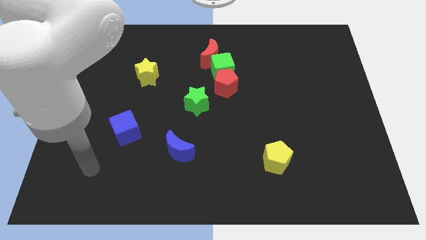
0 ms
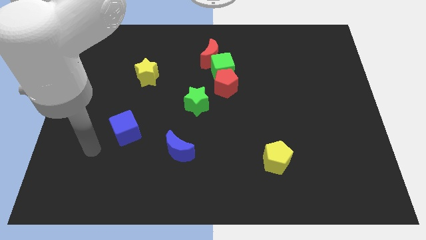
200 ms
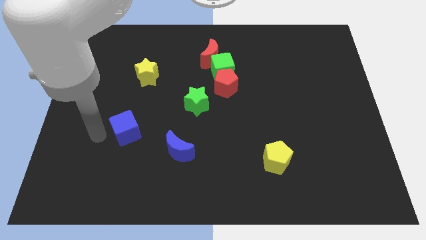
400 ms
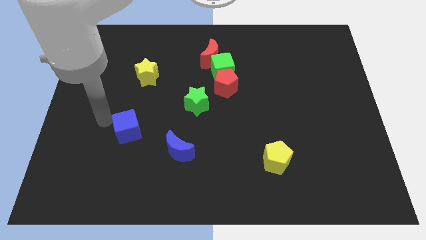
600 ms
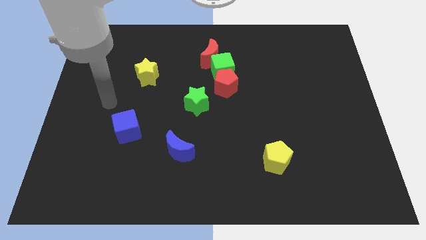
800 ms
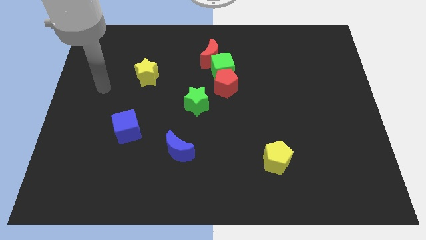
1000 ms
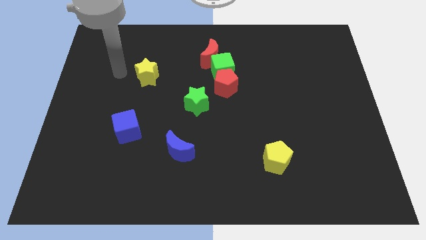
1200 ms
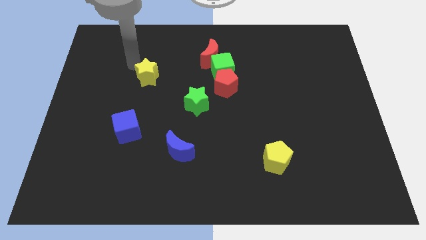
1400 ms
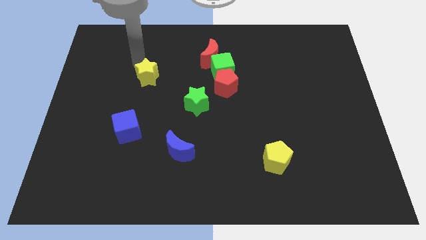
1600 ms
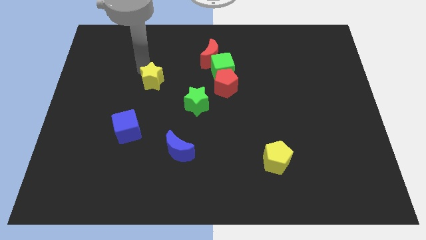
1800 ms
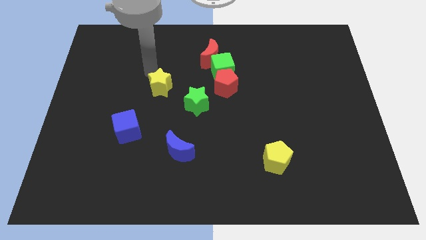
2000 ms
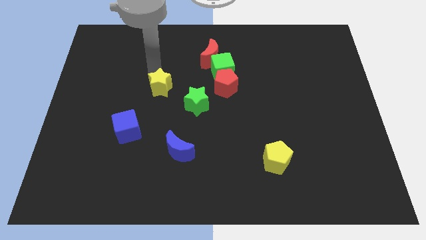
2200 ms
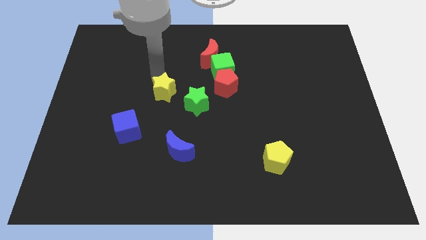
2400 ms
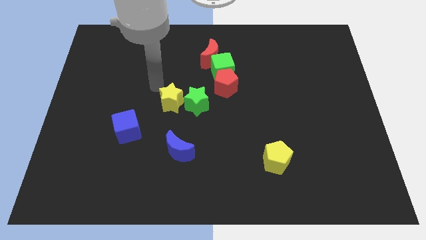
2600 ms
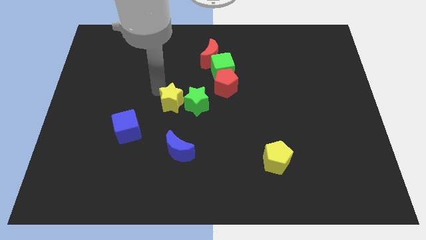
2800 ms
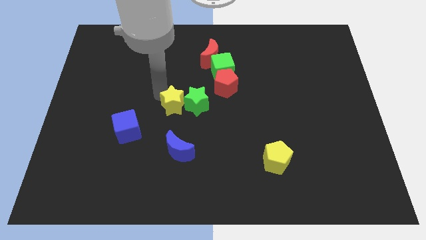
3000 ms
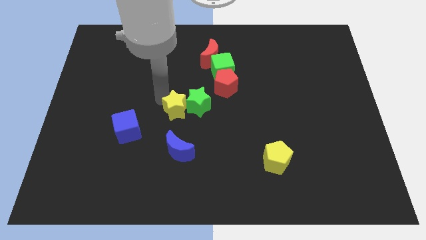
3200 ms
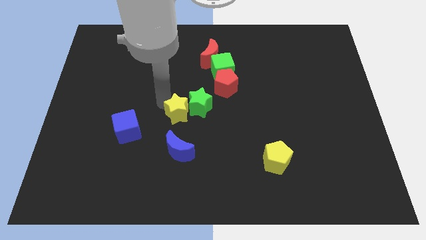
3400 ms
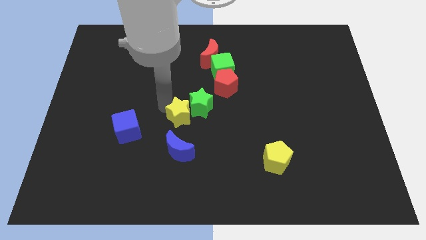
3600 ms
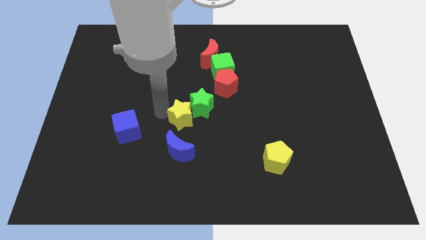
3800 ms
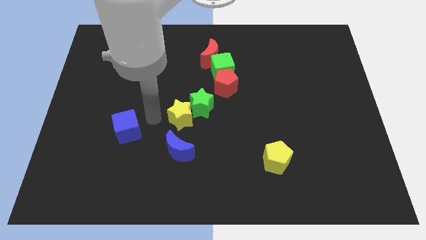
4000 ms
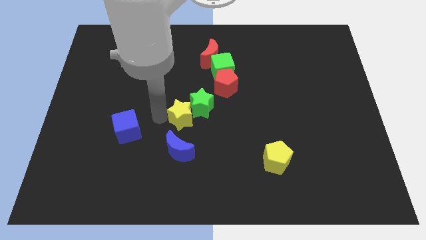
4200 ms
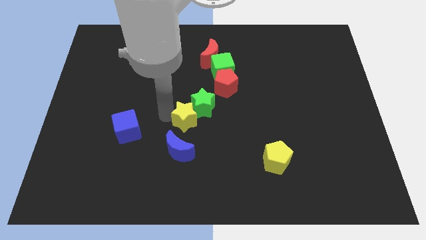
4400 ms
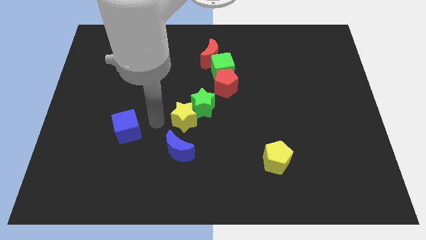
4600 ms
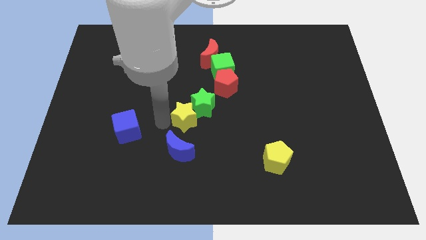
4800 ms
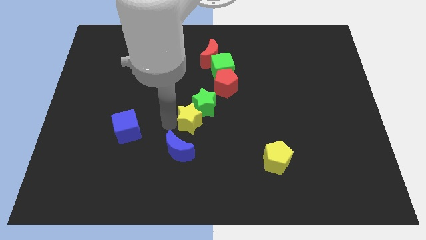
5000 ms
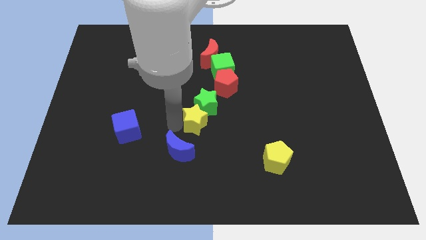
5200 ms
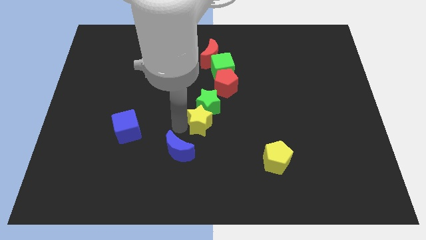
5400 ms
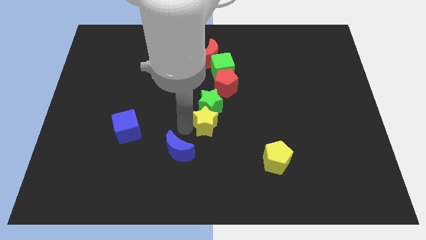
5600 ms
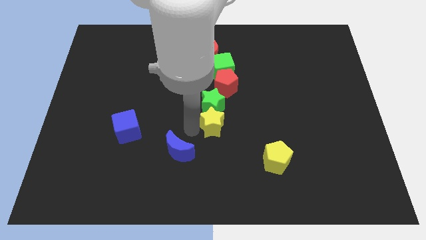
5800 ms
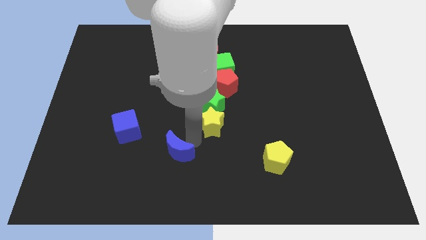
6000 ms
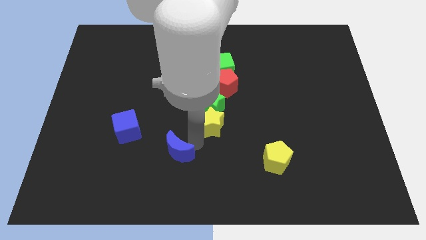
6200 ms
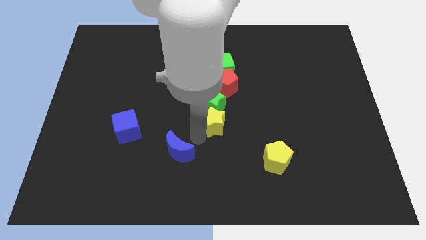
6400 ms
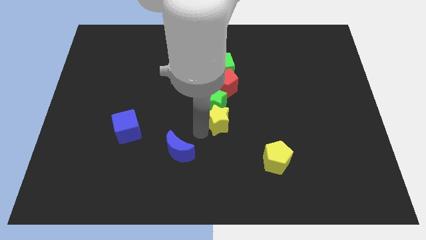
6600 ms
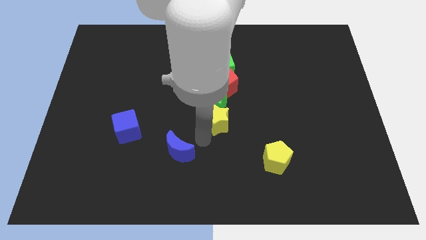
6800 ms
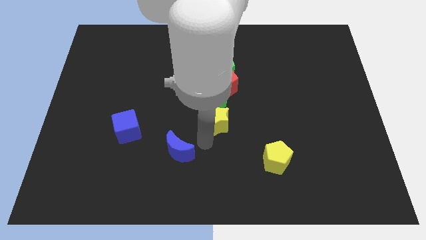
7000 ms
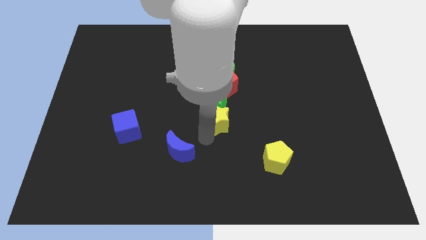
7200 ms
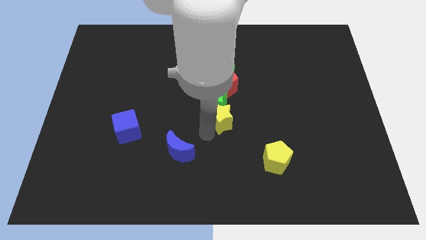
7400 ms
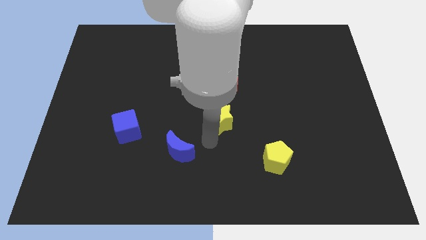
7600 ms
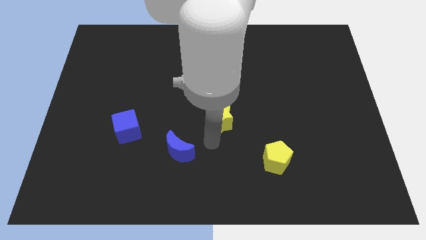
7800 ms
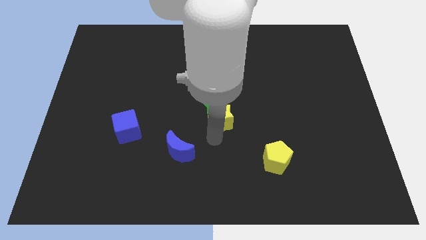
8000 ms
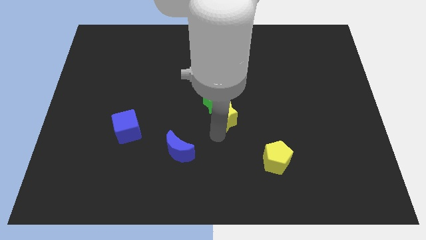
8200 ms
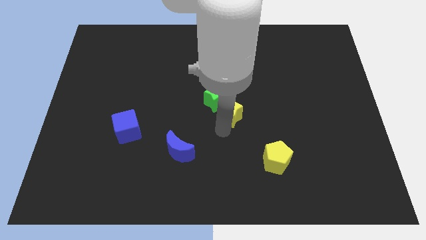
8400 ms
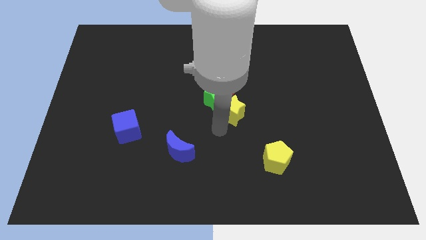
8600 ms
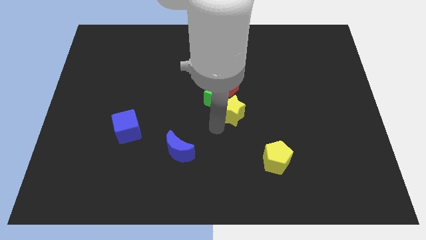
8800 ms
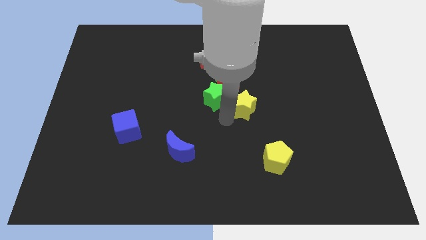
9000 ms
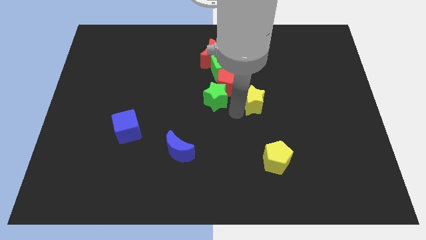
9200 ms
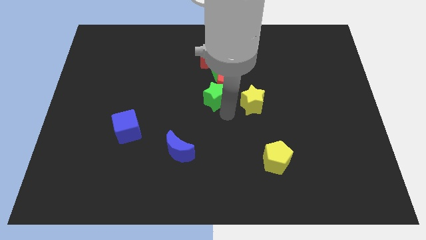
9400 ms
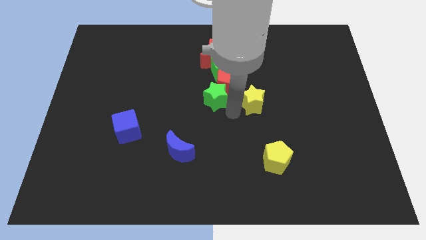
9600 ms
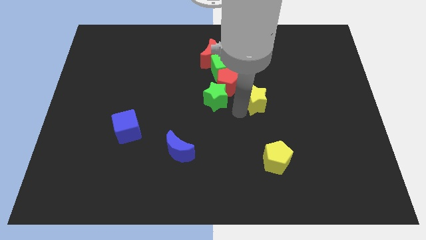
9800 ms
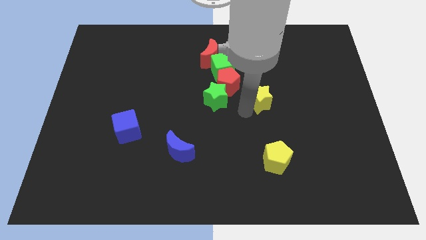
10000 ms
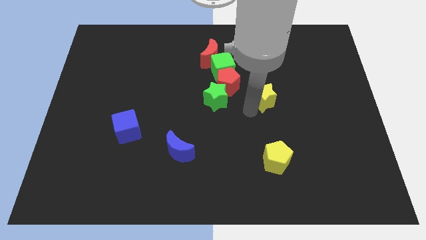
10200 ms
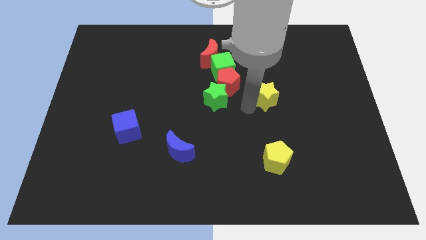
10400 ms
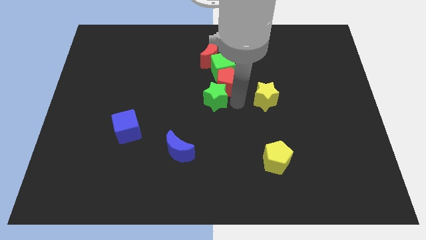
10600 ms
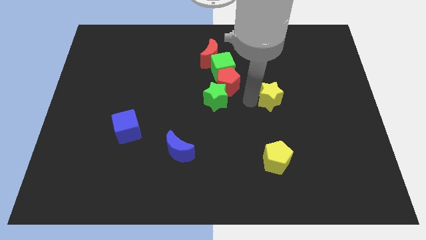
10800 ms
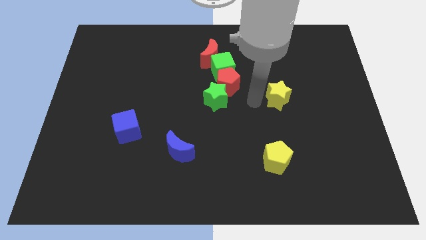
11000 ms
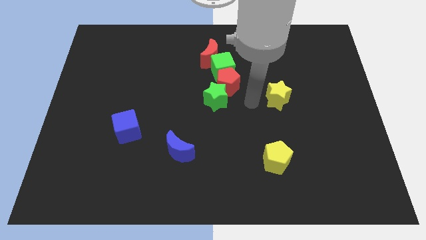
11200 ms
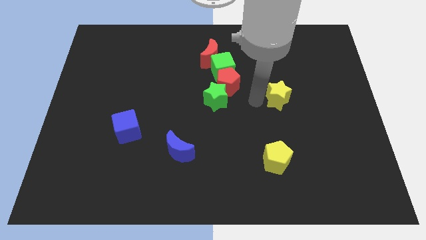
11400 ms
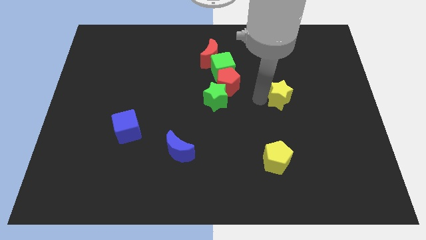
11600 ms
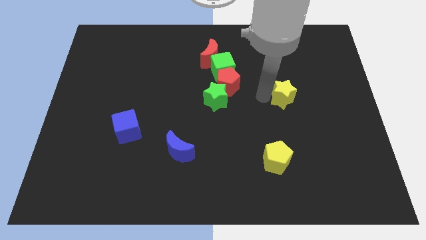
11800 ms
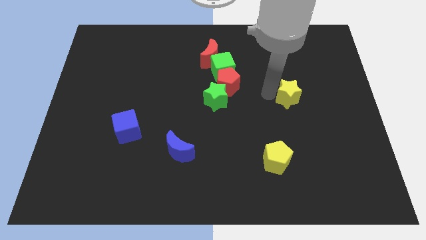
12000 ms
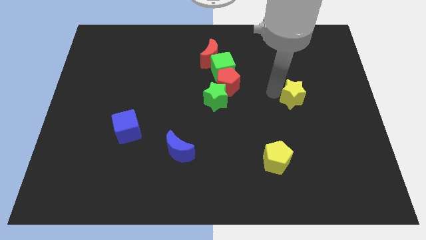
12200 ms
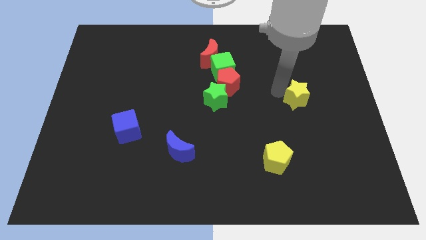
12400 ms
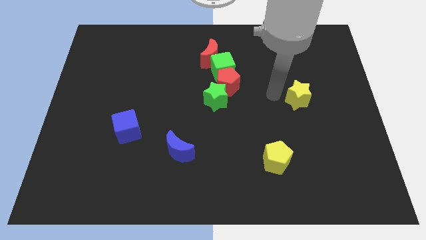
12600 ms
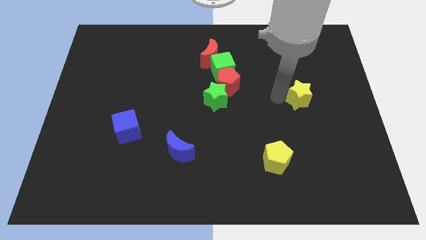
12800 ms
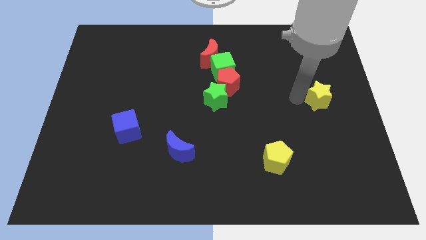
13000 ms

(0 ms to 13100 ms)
slide the yellow star to the right side of the board

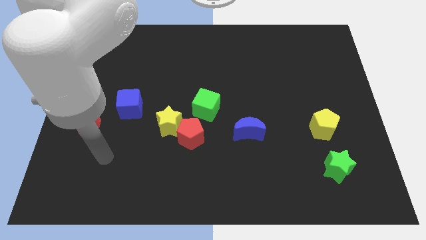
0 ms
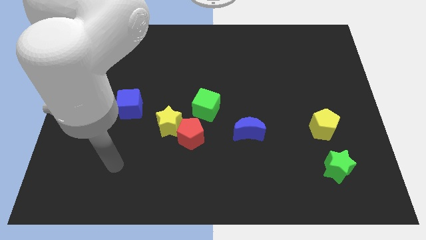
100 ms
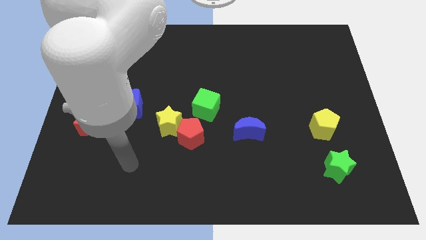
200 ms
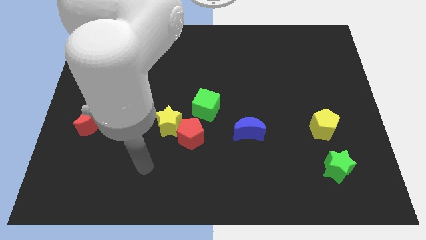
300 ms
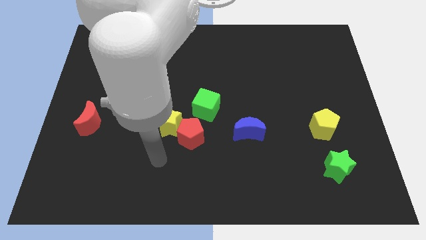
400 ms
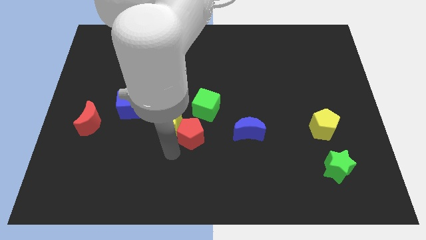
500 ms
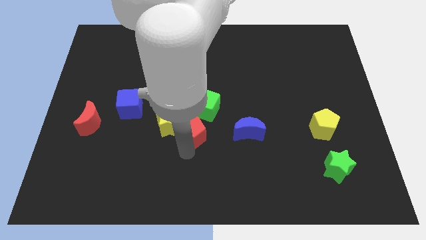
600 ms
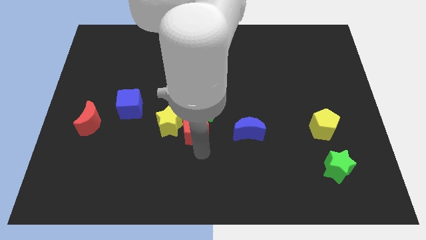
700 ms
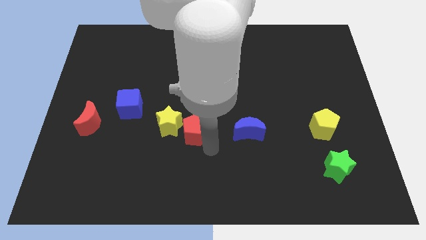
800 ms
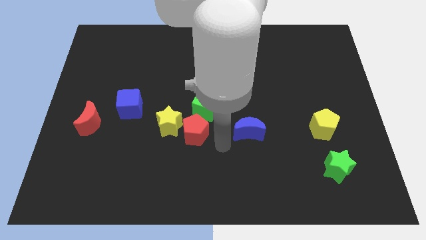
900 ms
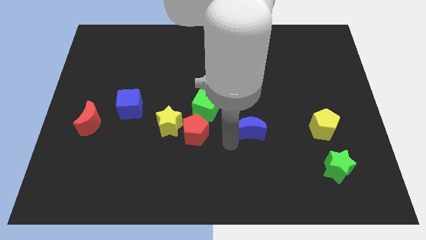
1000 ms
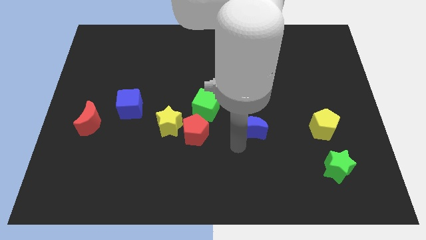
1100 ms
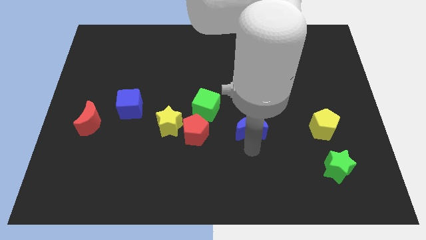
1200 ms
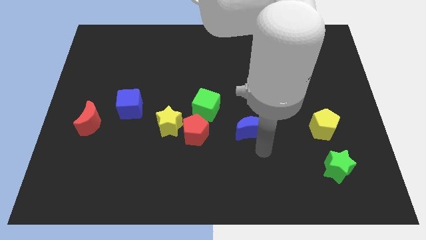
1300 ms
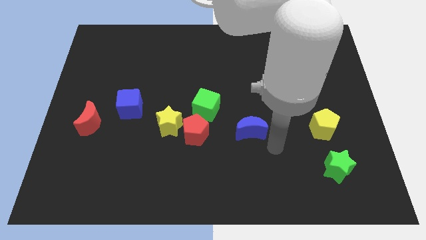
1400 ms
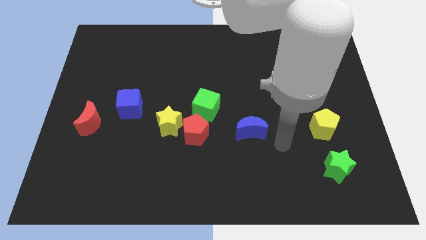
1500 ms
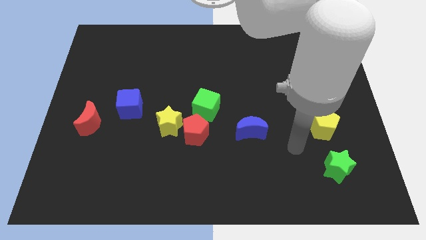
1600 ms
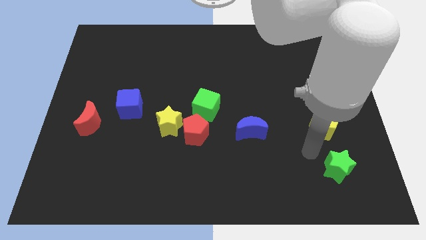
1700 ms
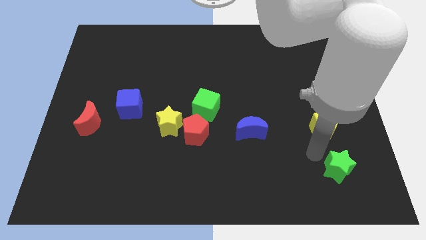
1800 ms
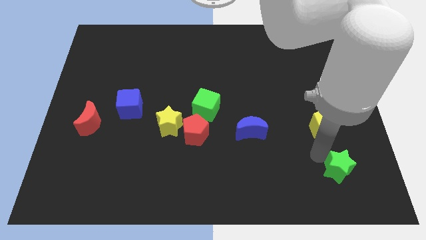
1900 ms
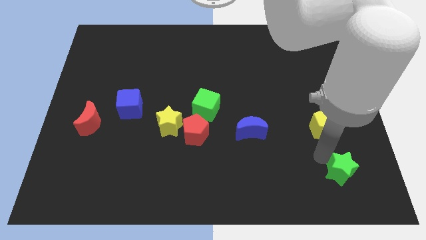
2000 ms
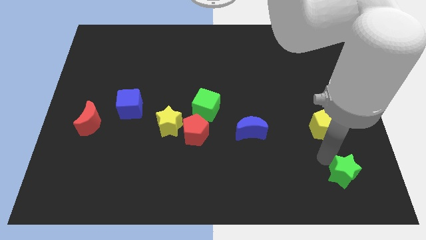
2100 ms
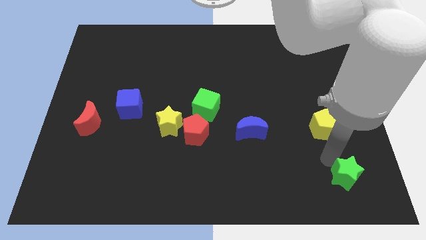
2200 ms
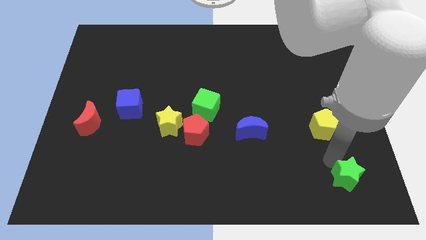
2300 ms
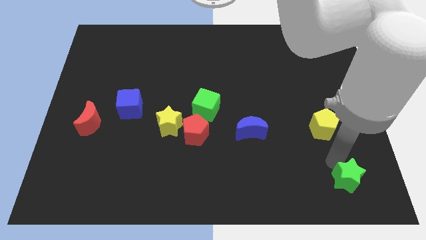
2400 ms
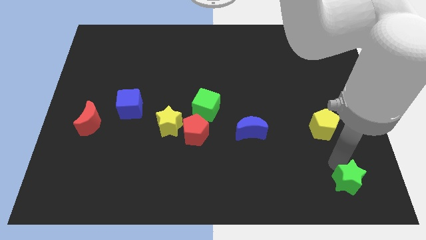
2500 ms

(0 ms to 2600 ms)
push the green star to the lower right corner
